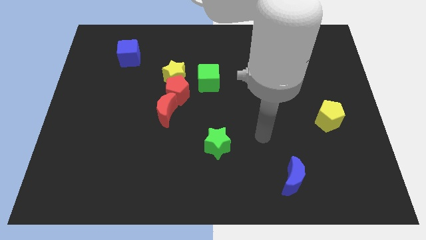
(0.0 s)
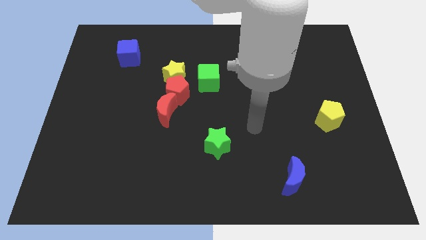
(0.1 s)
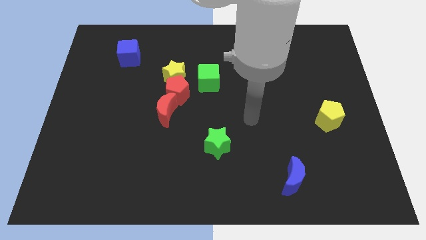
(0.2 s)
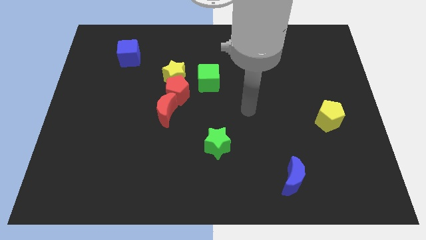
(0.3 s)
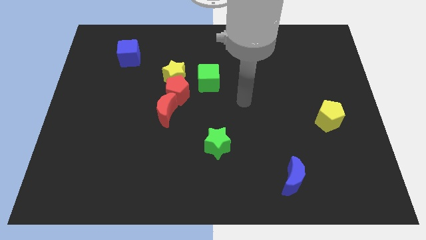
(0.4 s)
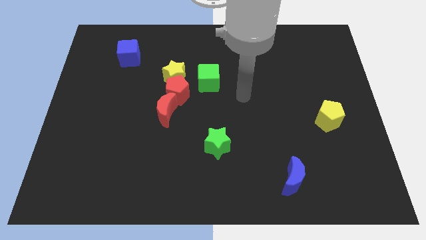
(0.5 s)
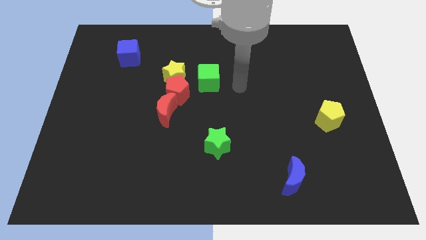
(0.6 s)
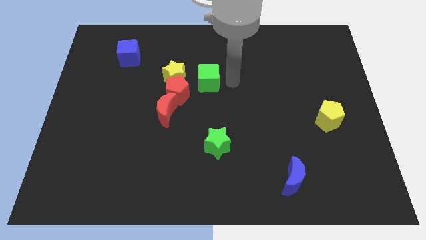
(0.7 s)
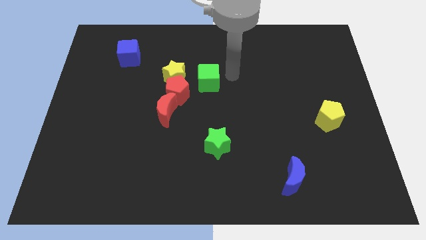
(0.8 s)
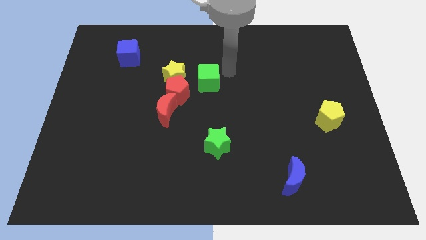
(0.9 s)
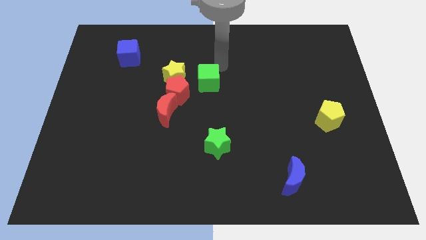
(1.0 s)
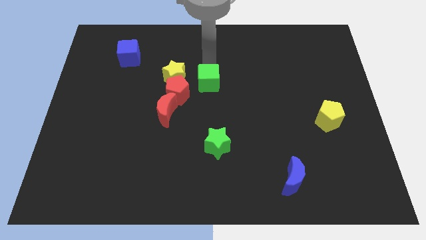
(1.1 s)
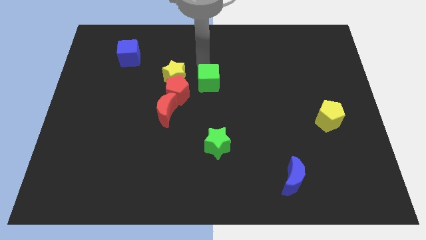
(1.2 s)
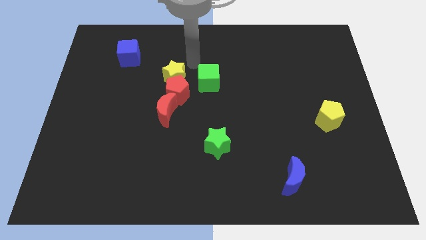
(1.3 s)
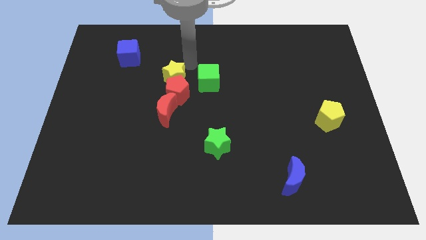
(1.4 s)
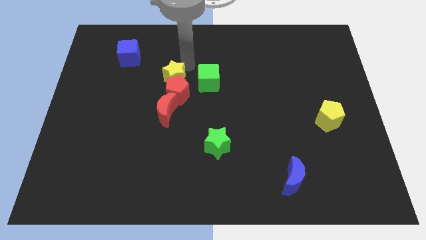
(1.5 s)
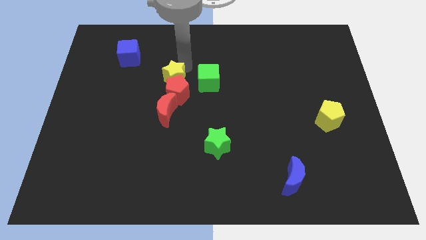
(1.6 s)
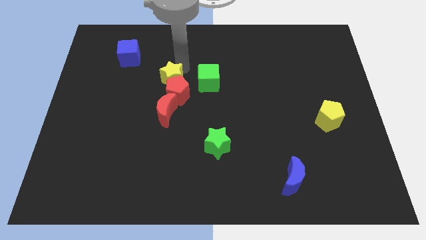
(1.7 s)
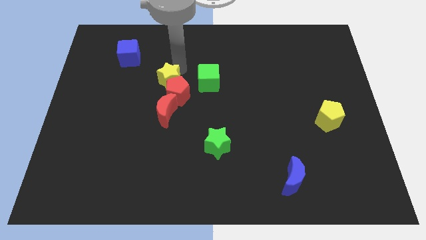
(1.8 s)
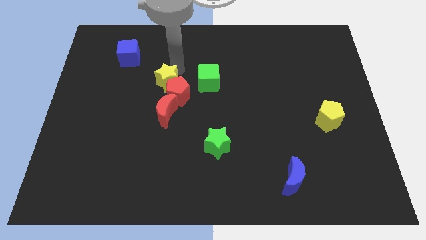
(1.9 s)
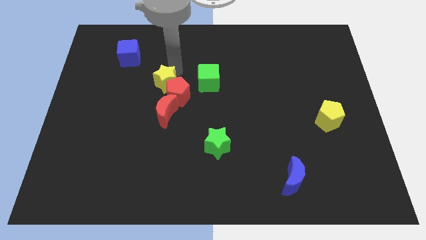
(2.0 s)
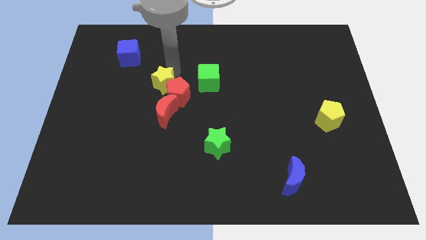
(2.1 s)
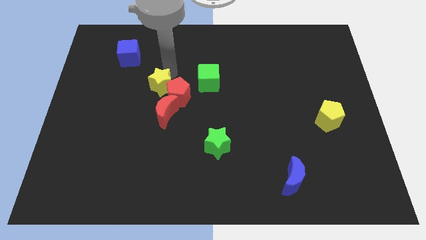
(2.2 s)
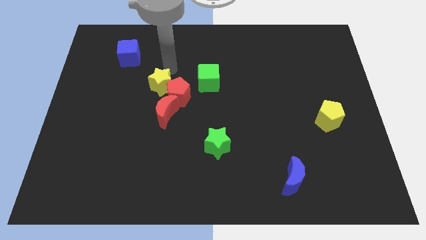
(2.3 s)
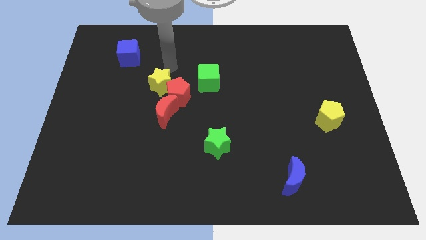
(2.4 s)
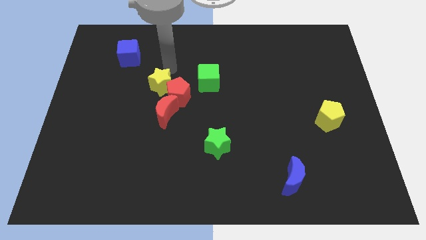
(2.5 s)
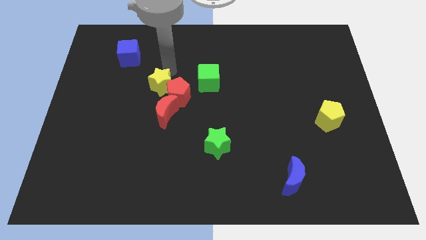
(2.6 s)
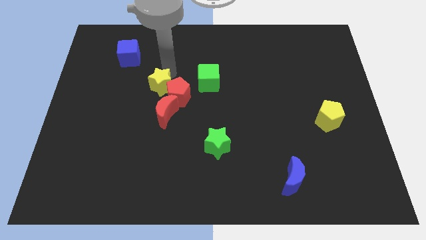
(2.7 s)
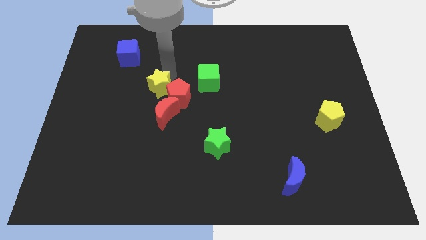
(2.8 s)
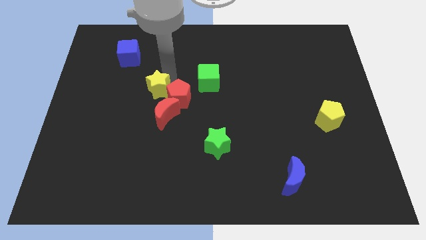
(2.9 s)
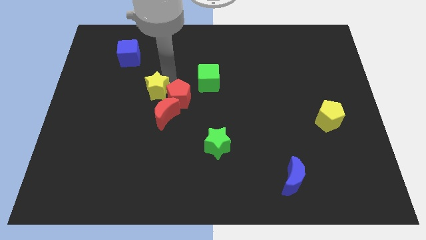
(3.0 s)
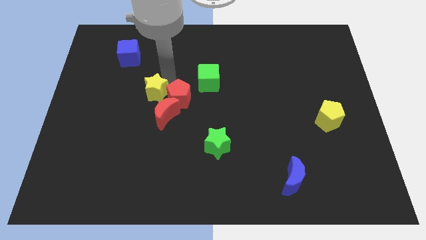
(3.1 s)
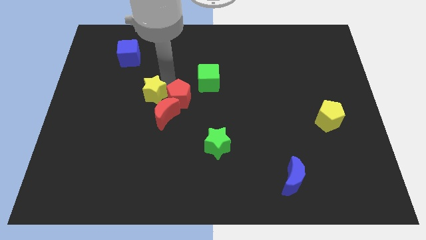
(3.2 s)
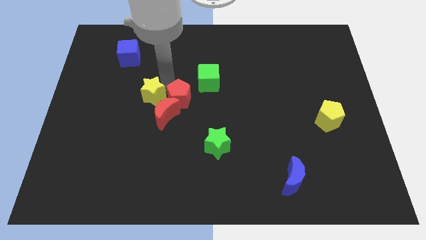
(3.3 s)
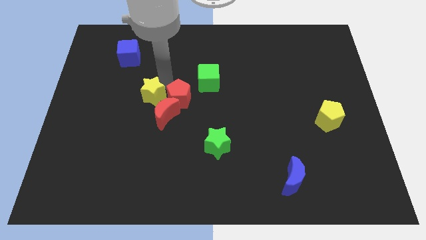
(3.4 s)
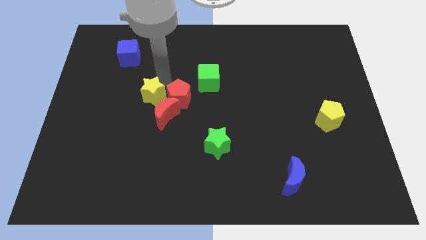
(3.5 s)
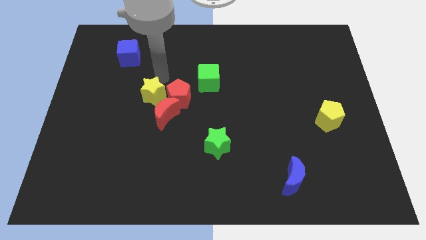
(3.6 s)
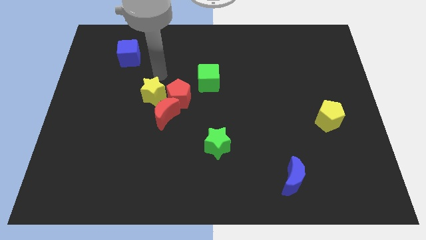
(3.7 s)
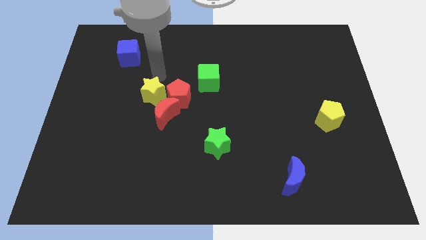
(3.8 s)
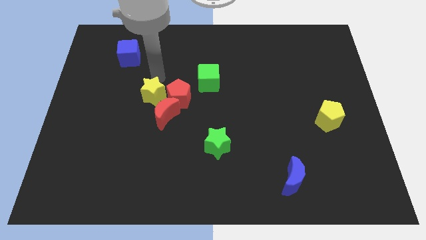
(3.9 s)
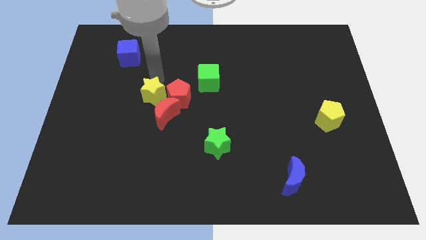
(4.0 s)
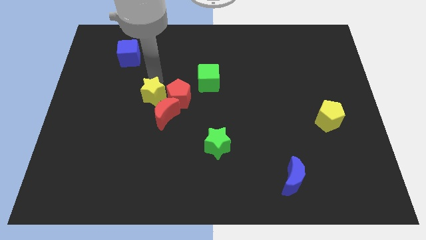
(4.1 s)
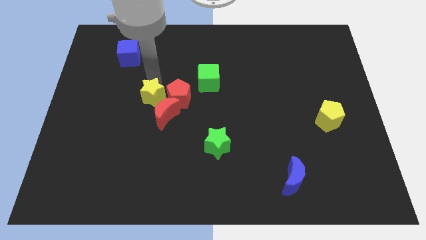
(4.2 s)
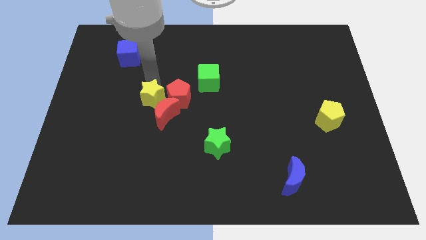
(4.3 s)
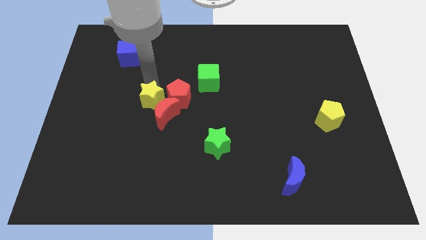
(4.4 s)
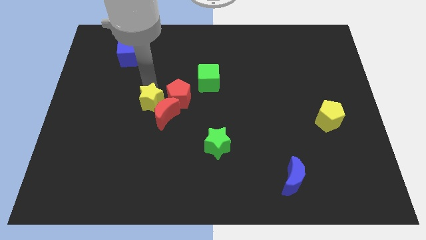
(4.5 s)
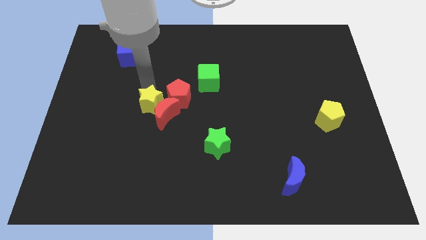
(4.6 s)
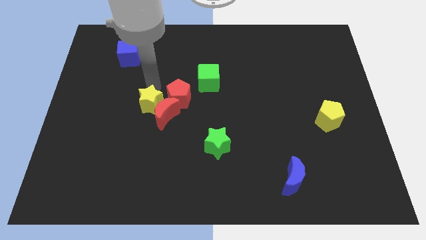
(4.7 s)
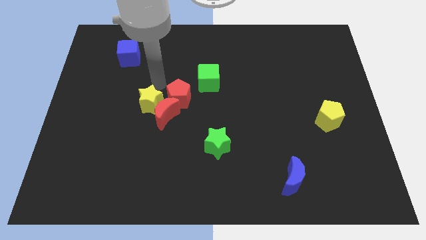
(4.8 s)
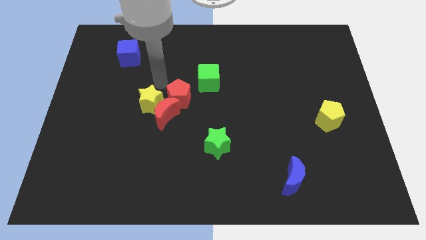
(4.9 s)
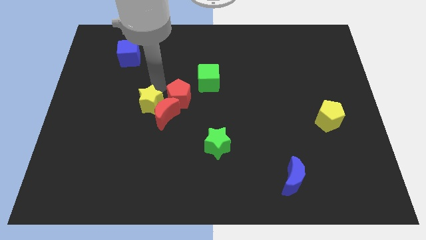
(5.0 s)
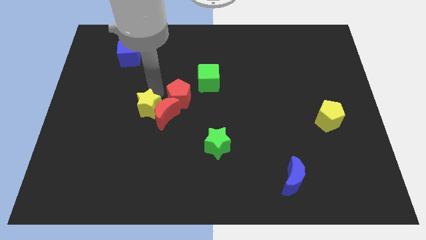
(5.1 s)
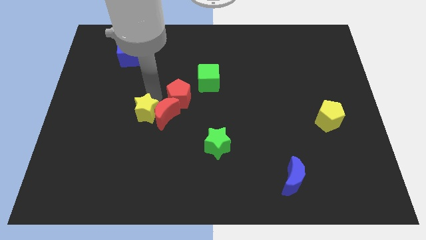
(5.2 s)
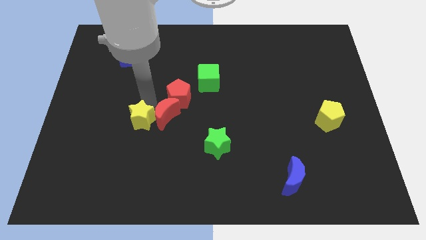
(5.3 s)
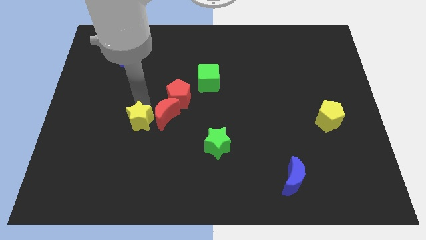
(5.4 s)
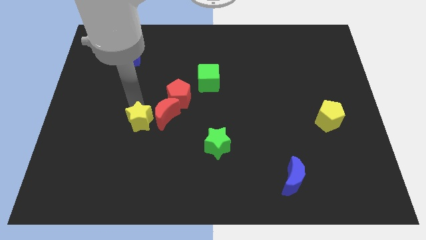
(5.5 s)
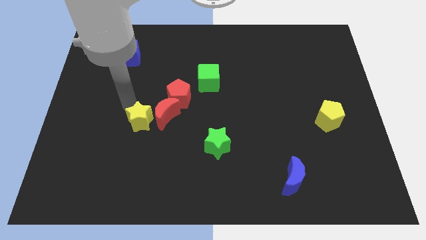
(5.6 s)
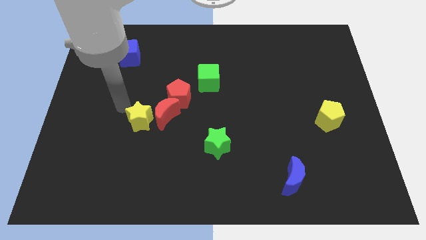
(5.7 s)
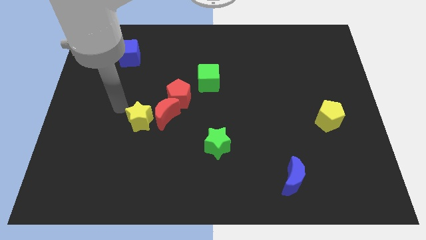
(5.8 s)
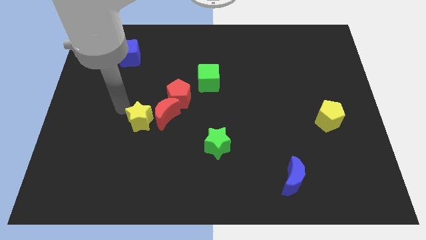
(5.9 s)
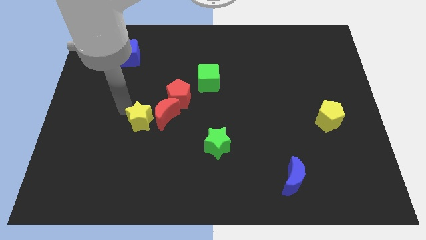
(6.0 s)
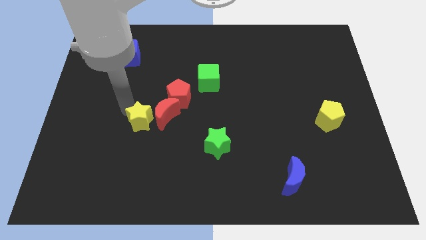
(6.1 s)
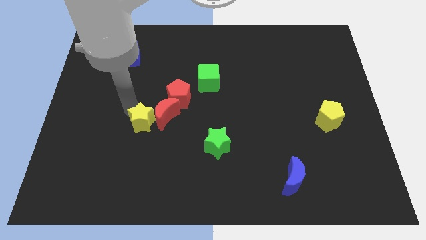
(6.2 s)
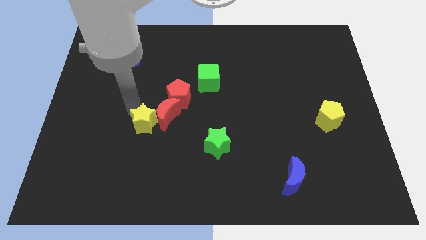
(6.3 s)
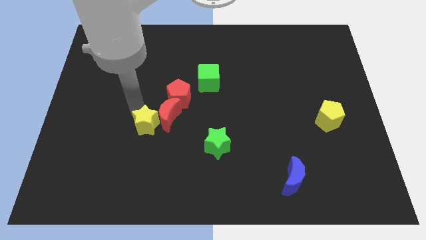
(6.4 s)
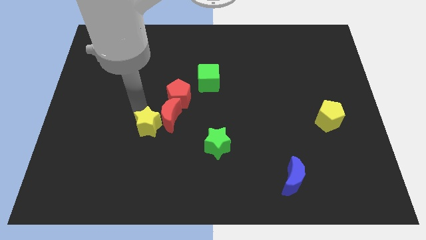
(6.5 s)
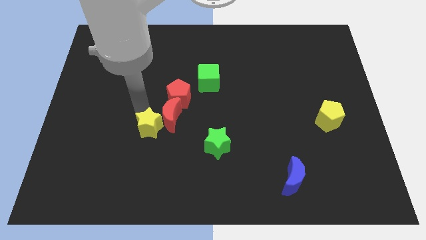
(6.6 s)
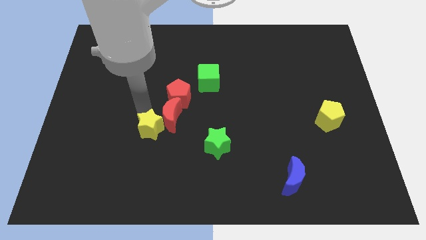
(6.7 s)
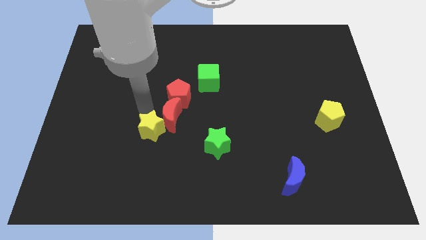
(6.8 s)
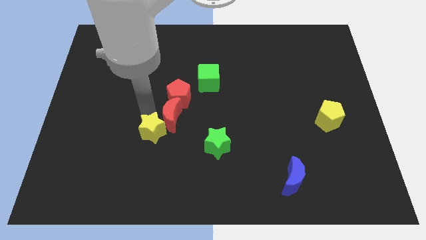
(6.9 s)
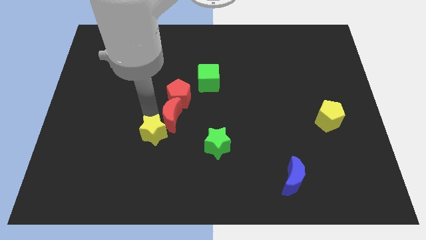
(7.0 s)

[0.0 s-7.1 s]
push the yellow star left of the green star
